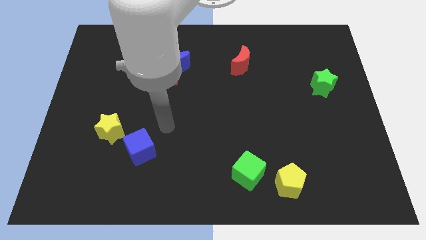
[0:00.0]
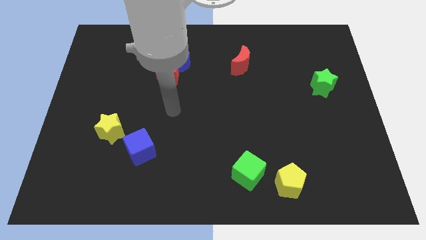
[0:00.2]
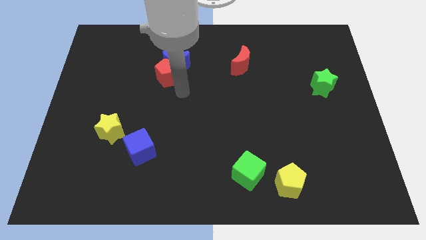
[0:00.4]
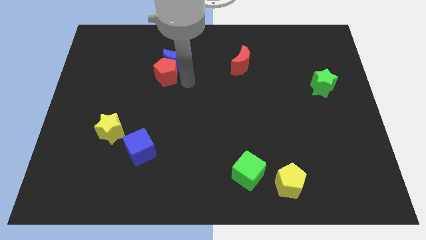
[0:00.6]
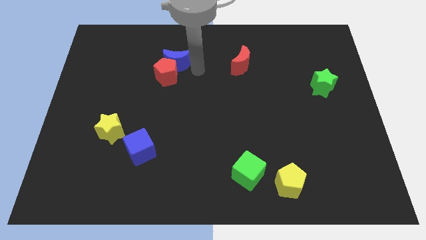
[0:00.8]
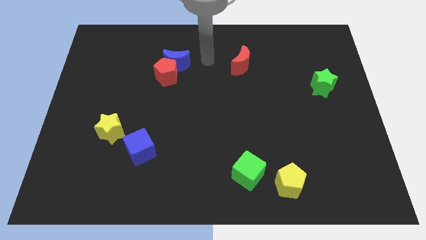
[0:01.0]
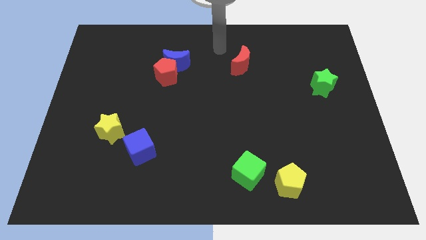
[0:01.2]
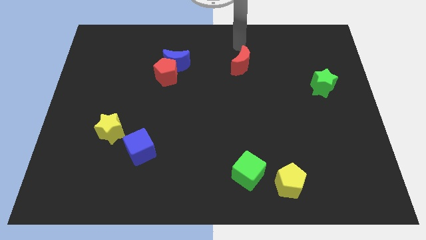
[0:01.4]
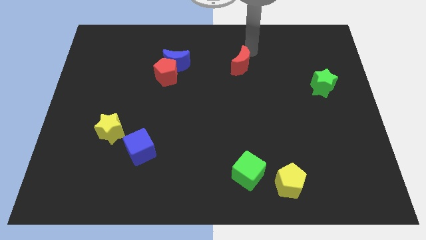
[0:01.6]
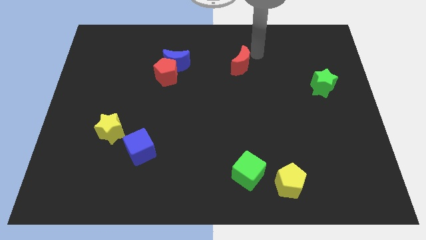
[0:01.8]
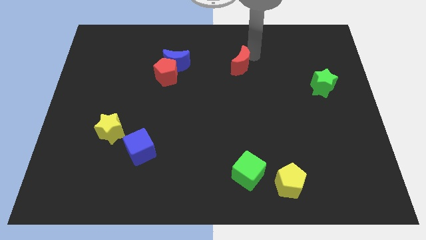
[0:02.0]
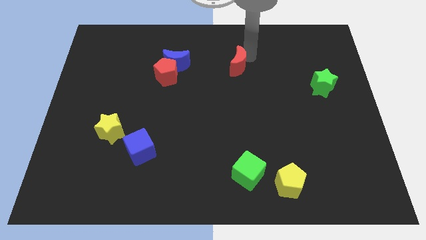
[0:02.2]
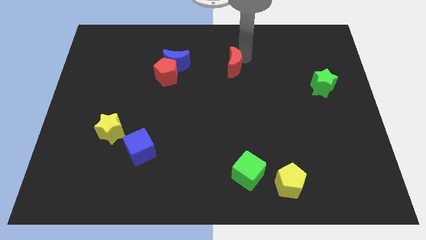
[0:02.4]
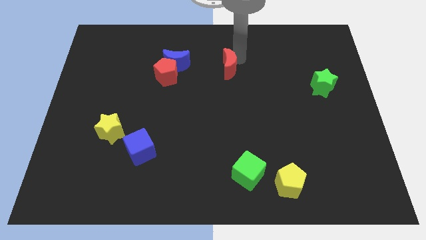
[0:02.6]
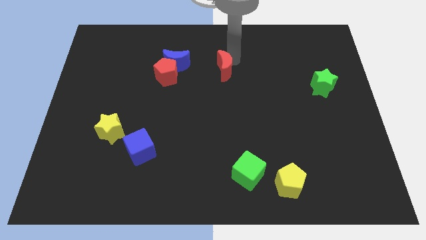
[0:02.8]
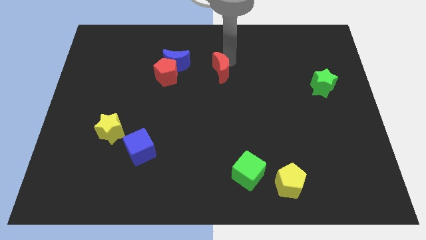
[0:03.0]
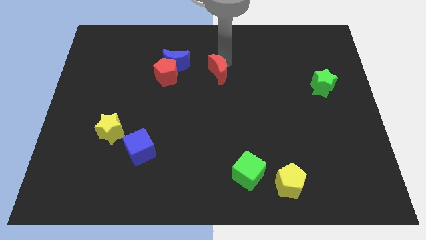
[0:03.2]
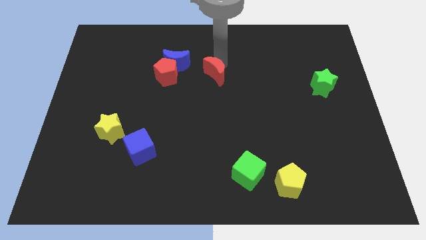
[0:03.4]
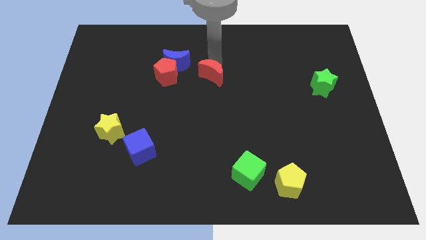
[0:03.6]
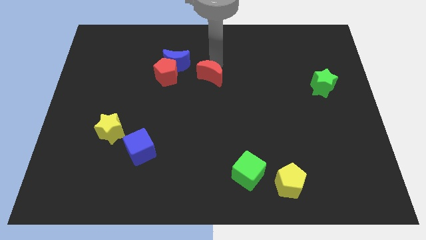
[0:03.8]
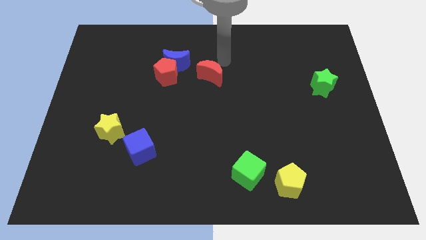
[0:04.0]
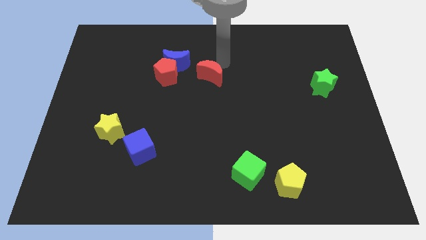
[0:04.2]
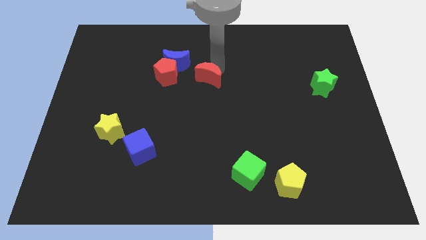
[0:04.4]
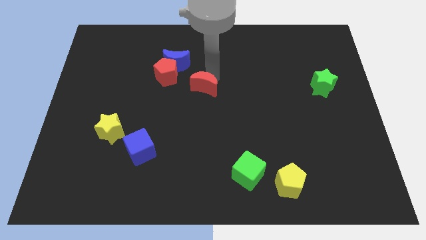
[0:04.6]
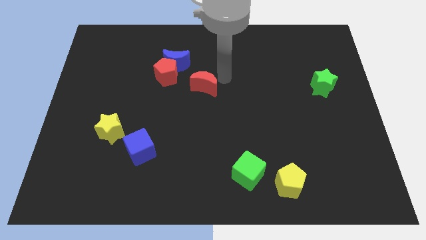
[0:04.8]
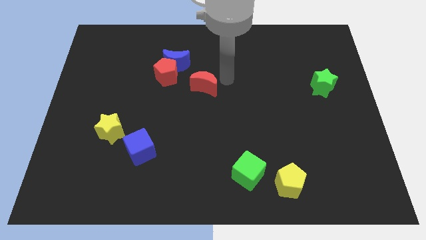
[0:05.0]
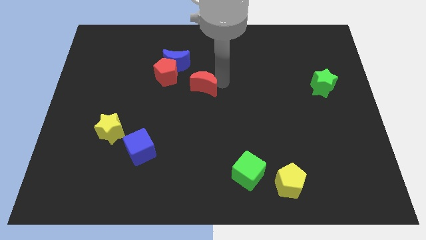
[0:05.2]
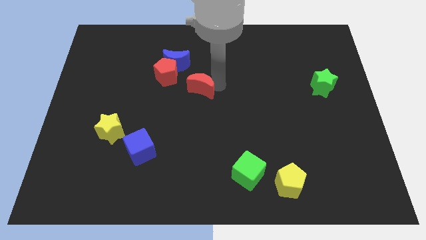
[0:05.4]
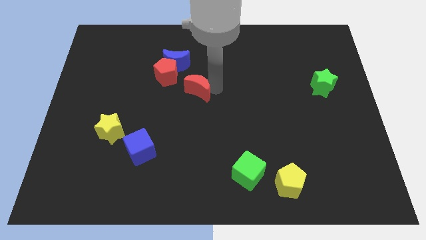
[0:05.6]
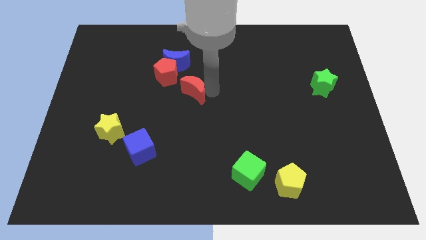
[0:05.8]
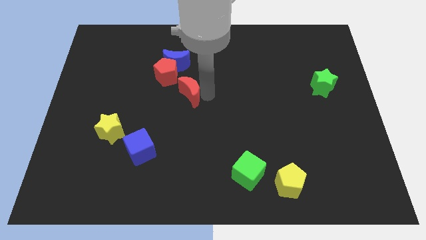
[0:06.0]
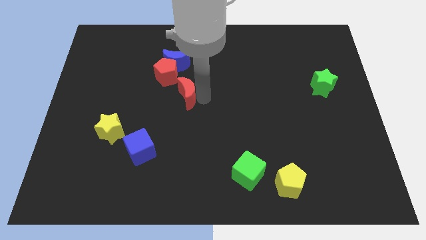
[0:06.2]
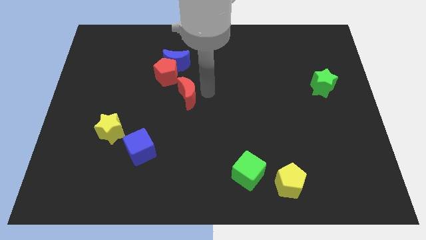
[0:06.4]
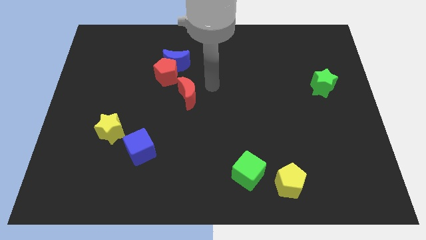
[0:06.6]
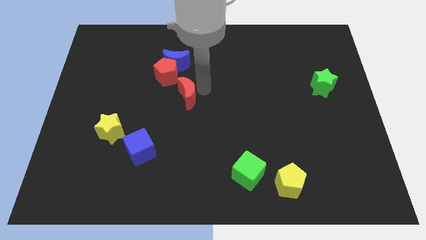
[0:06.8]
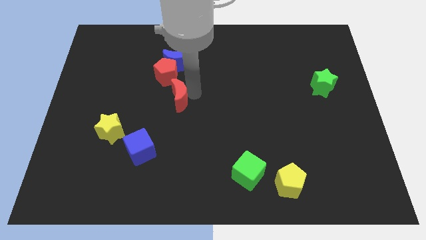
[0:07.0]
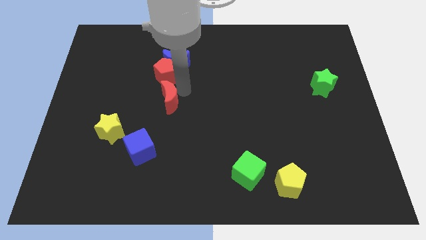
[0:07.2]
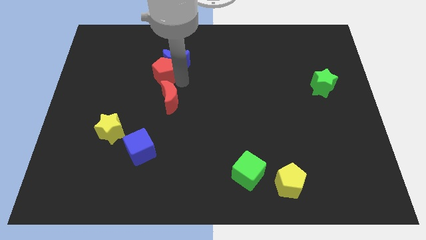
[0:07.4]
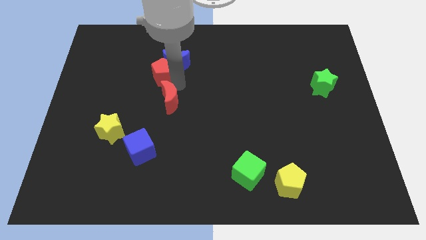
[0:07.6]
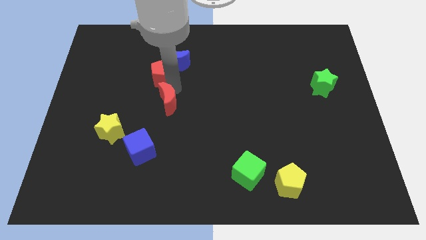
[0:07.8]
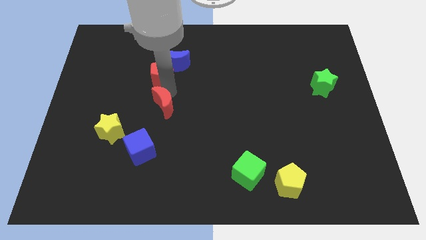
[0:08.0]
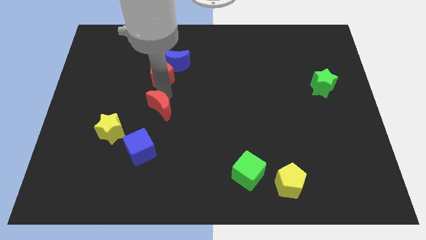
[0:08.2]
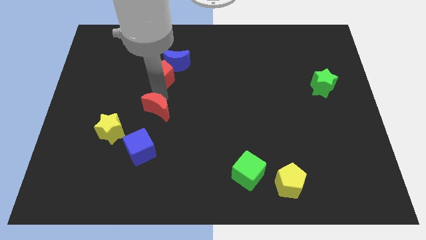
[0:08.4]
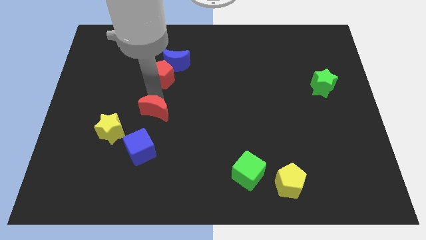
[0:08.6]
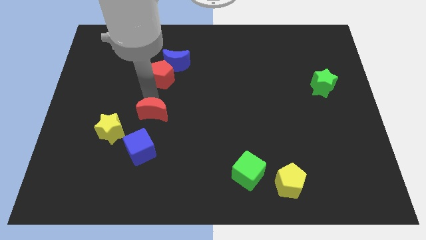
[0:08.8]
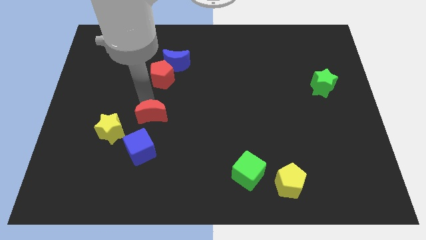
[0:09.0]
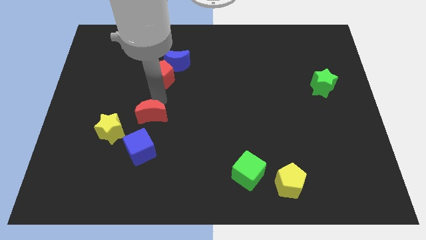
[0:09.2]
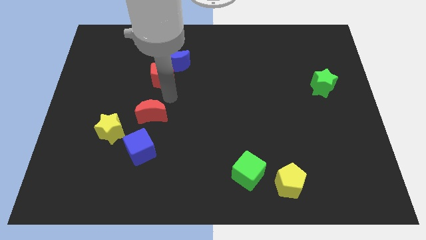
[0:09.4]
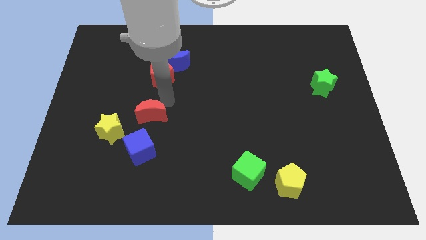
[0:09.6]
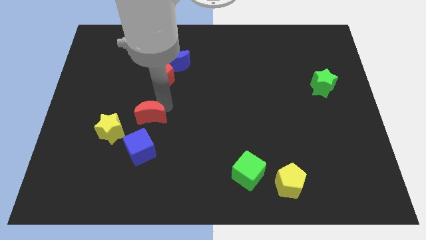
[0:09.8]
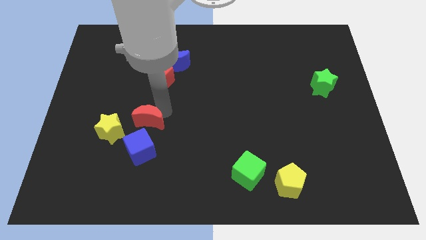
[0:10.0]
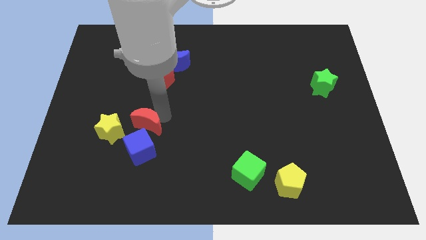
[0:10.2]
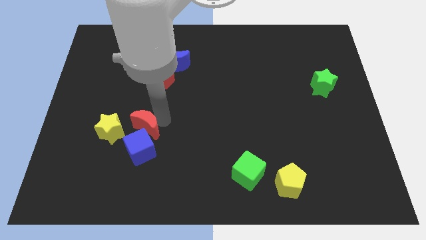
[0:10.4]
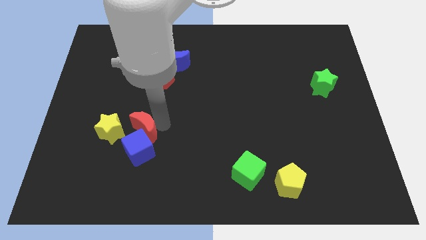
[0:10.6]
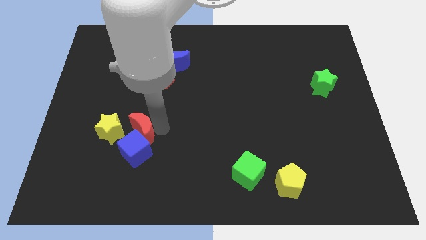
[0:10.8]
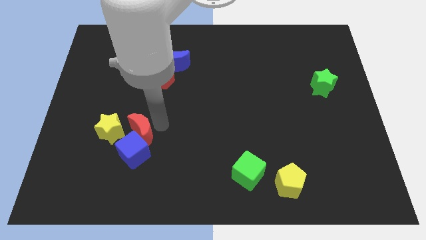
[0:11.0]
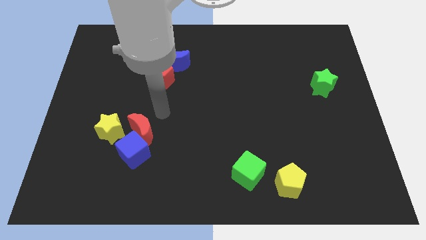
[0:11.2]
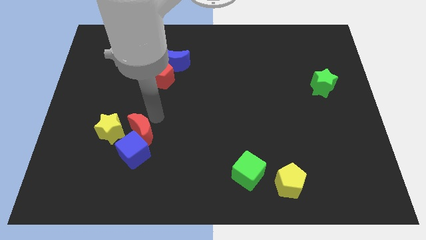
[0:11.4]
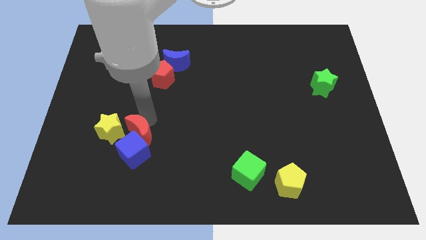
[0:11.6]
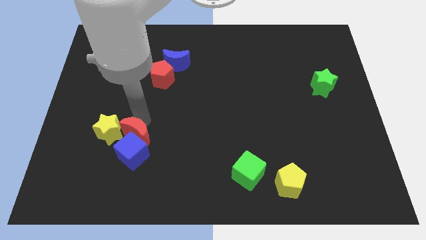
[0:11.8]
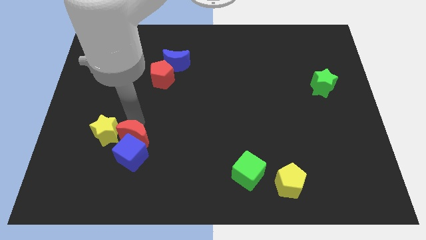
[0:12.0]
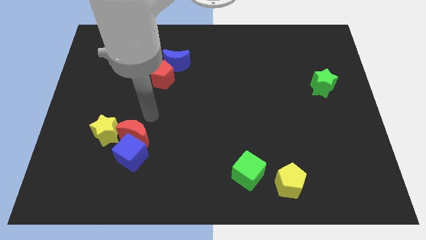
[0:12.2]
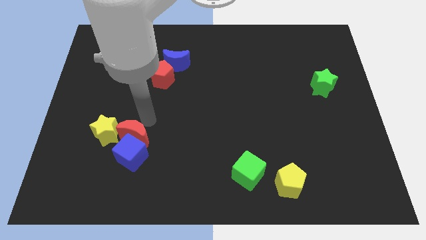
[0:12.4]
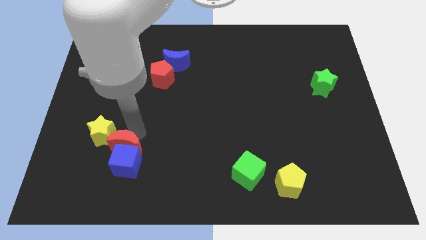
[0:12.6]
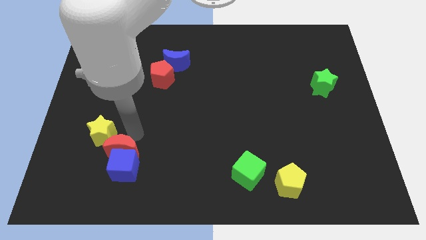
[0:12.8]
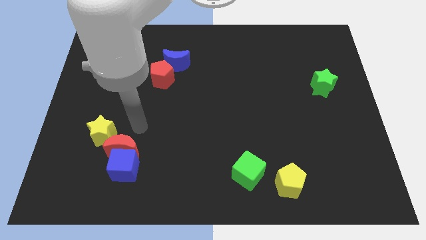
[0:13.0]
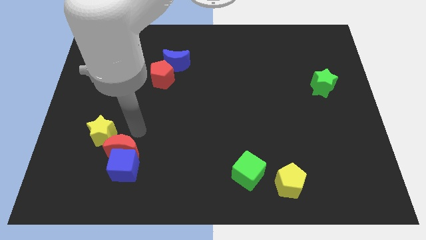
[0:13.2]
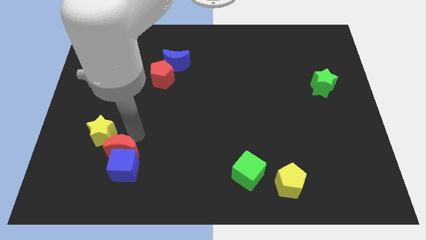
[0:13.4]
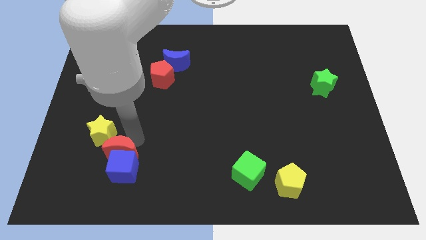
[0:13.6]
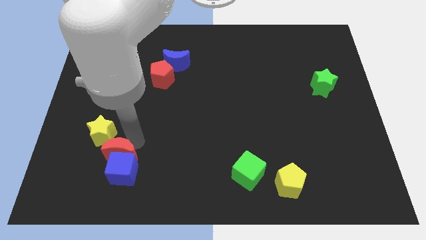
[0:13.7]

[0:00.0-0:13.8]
slide the red moon to the bottom of the yellow star
